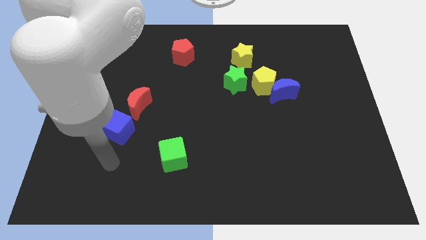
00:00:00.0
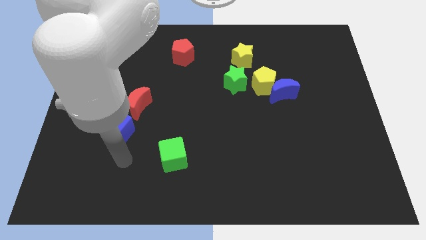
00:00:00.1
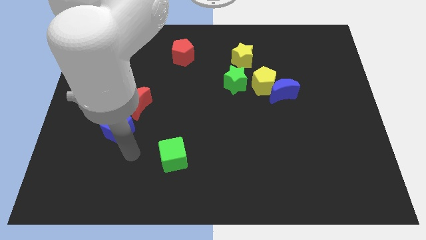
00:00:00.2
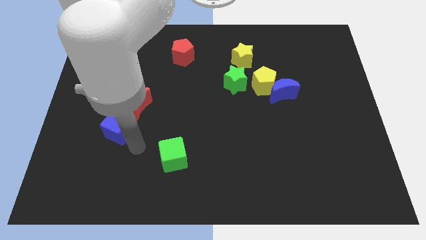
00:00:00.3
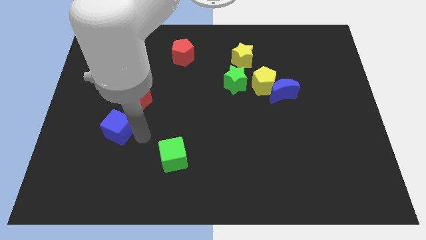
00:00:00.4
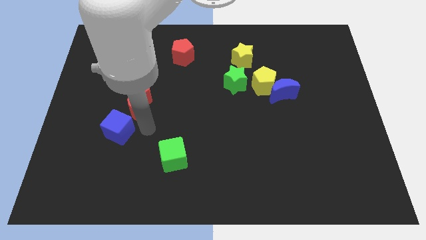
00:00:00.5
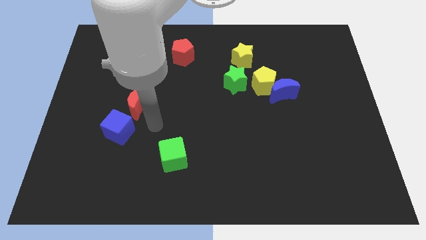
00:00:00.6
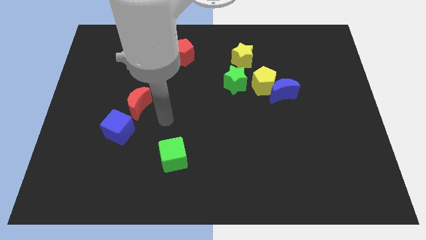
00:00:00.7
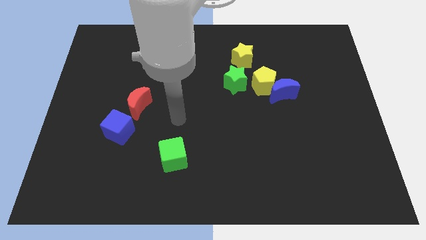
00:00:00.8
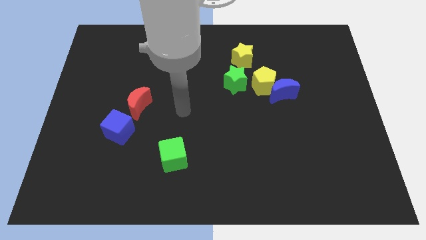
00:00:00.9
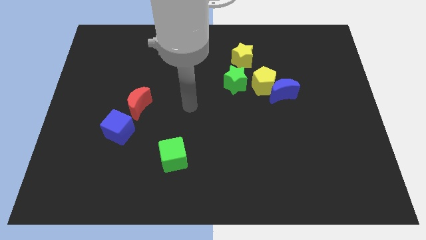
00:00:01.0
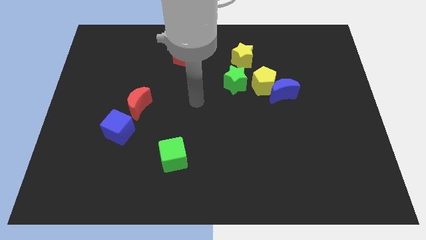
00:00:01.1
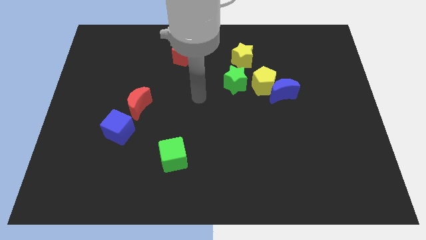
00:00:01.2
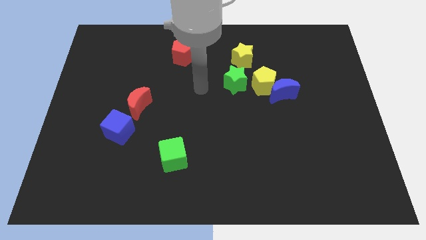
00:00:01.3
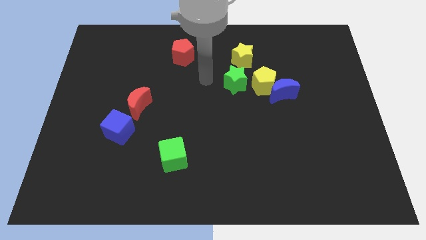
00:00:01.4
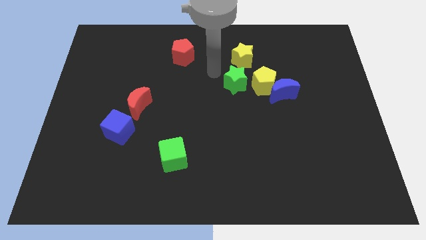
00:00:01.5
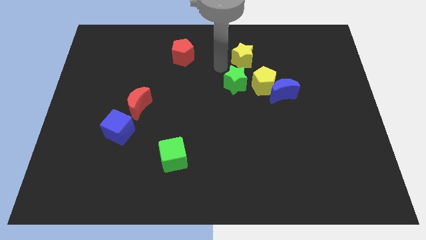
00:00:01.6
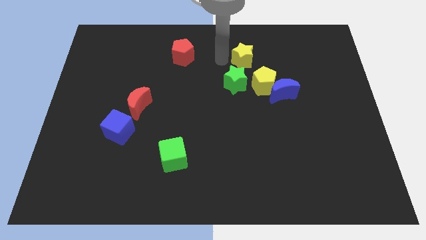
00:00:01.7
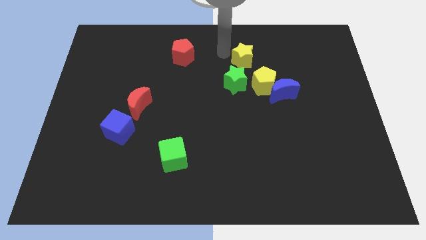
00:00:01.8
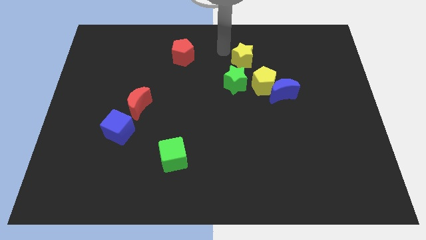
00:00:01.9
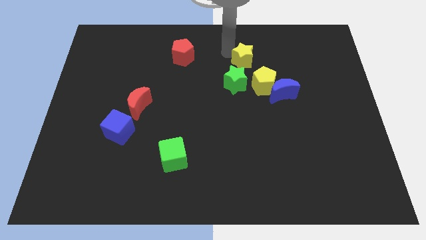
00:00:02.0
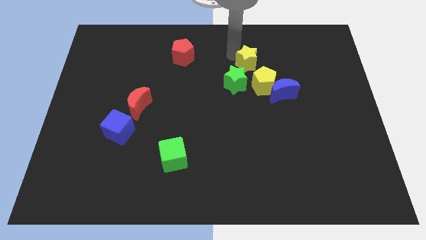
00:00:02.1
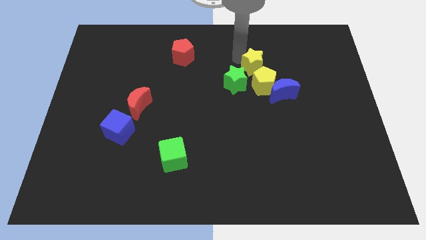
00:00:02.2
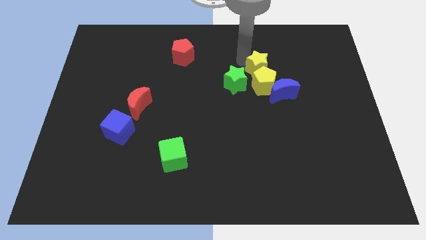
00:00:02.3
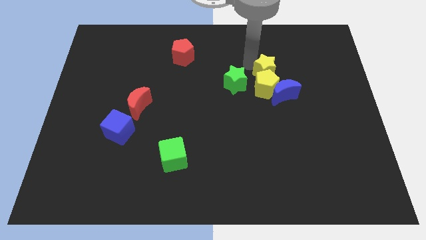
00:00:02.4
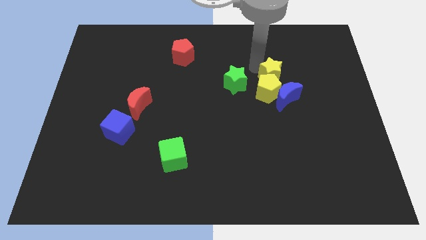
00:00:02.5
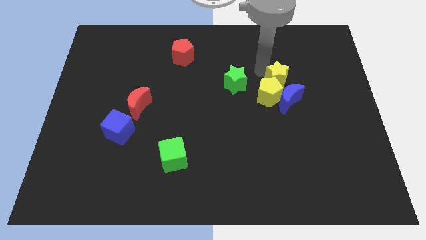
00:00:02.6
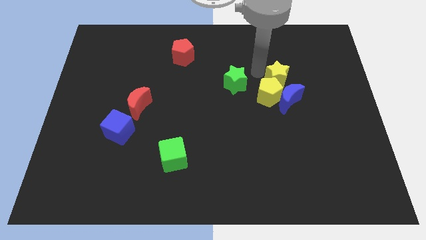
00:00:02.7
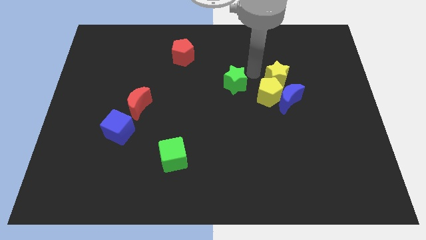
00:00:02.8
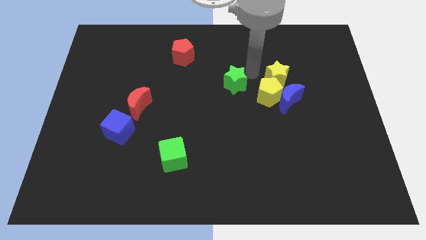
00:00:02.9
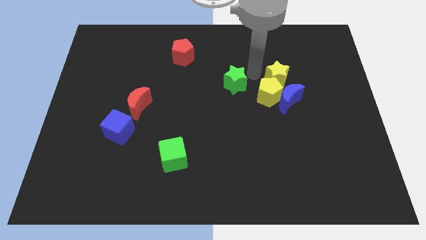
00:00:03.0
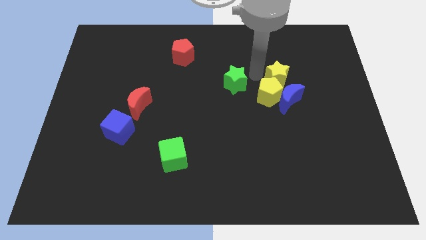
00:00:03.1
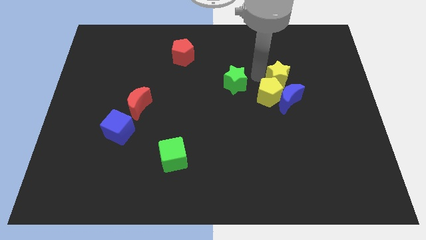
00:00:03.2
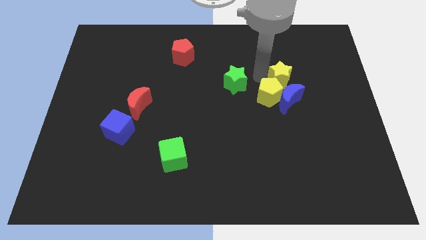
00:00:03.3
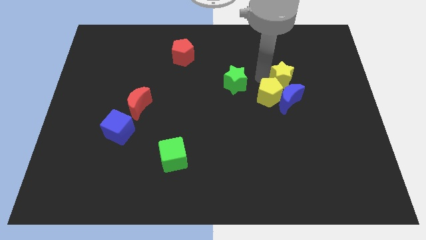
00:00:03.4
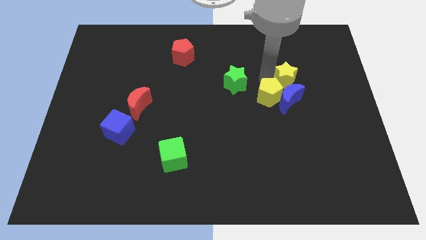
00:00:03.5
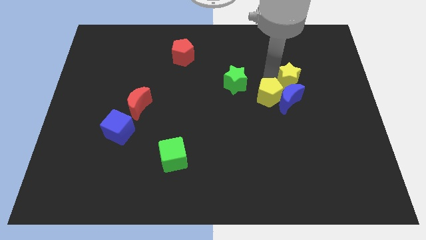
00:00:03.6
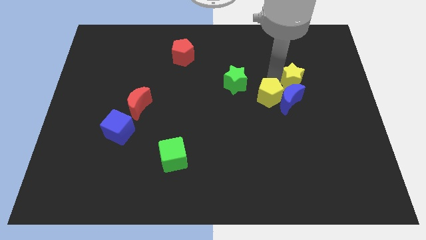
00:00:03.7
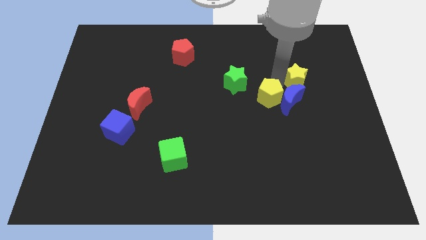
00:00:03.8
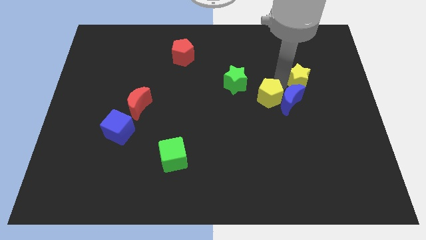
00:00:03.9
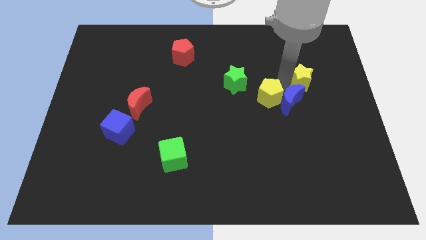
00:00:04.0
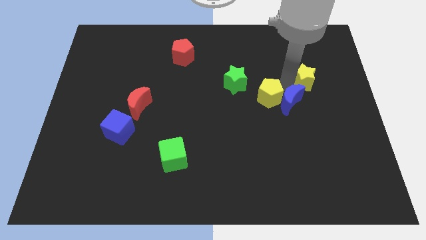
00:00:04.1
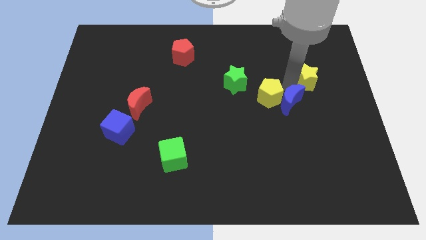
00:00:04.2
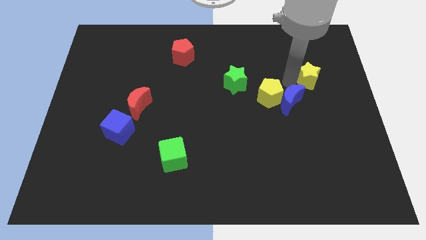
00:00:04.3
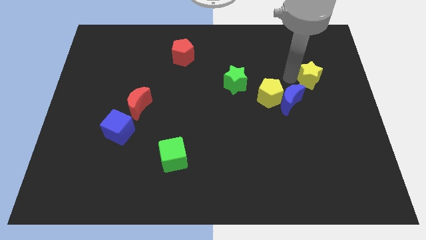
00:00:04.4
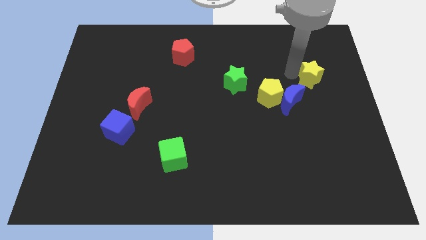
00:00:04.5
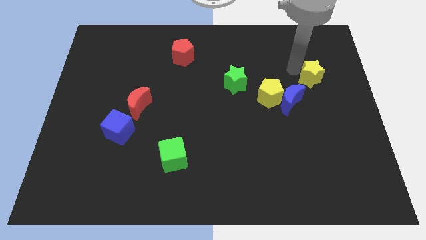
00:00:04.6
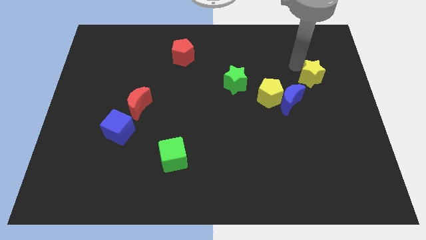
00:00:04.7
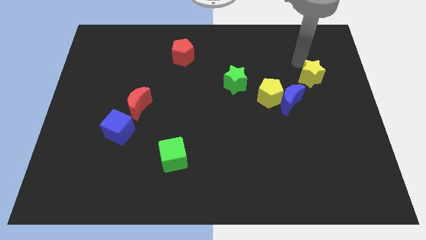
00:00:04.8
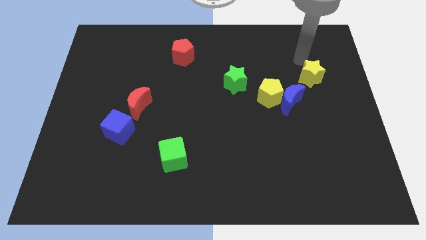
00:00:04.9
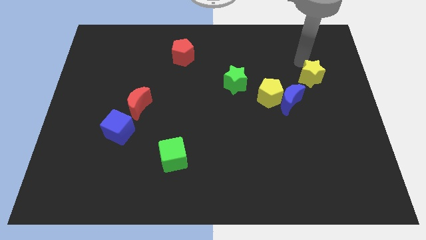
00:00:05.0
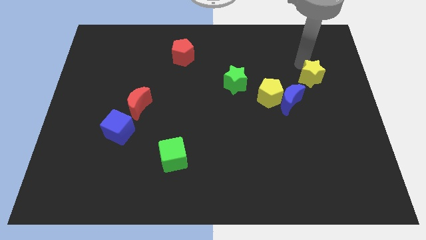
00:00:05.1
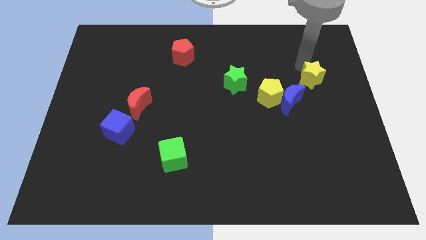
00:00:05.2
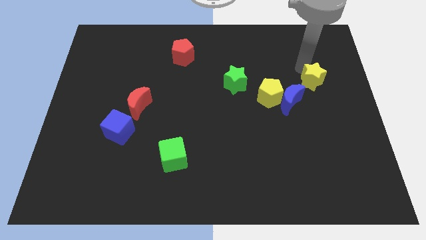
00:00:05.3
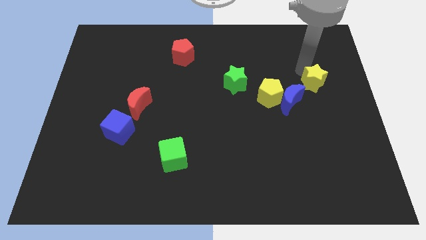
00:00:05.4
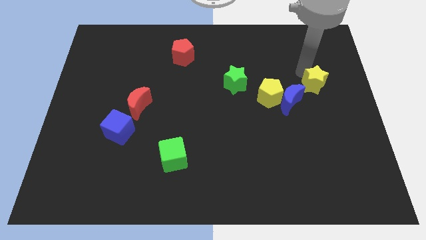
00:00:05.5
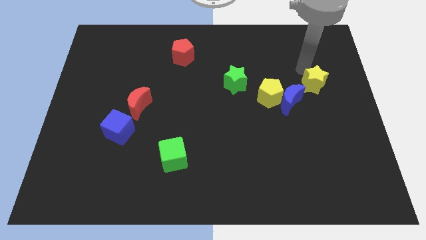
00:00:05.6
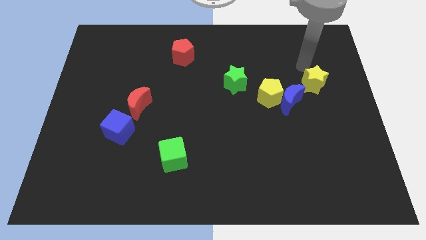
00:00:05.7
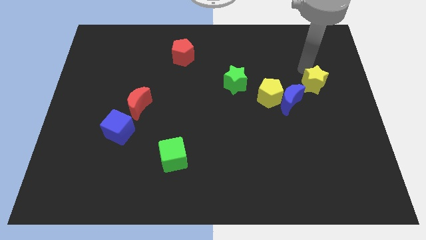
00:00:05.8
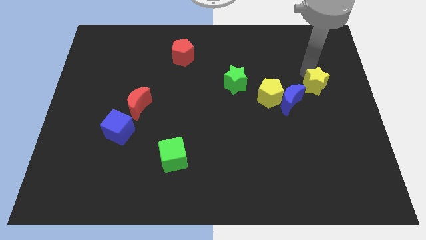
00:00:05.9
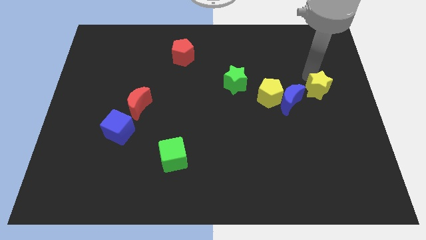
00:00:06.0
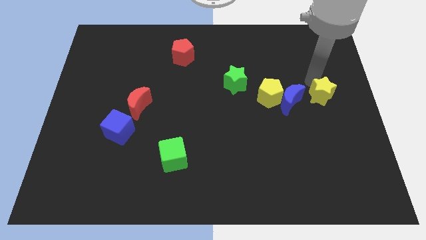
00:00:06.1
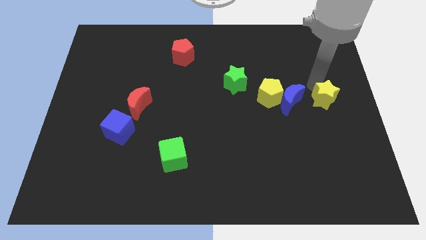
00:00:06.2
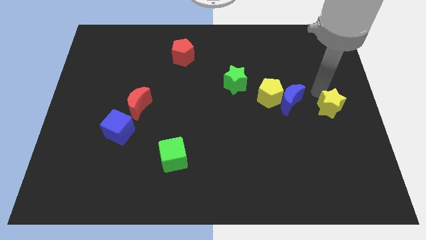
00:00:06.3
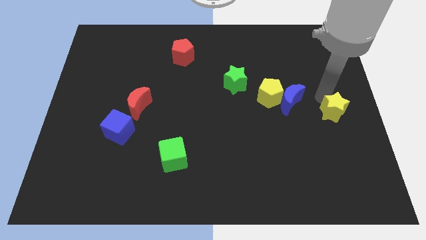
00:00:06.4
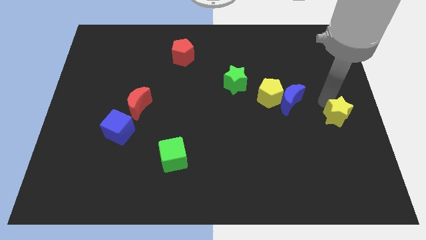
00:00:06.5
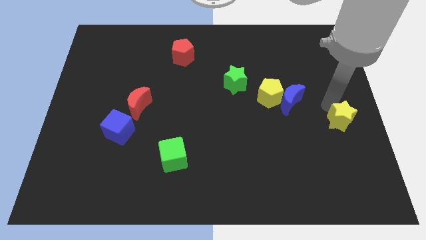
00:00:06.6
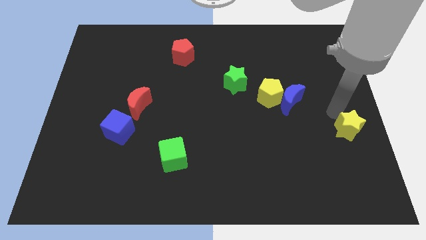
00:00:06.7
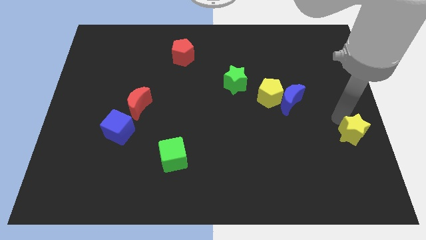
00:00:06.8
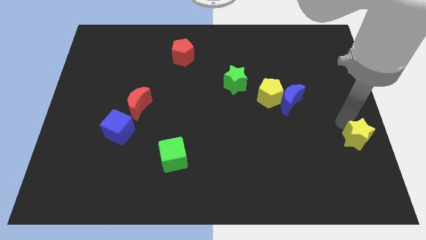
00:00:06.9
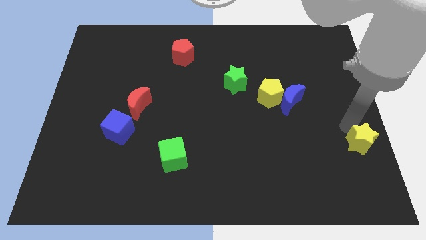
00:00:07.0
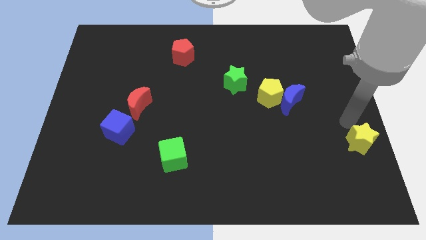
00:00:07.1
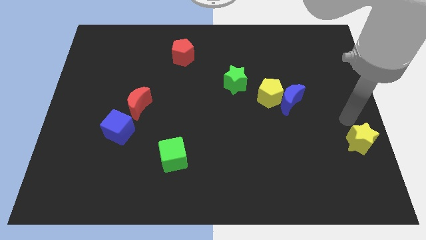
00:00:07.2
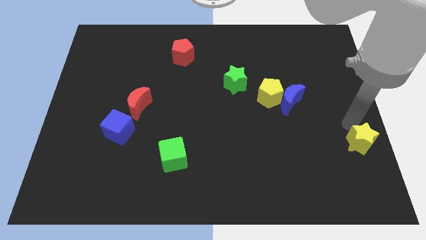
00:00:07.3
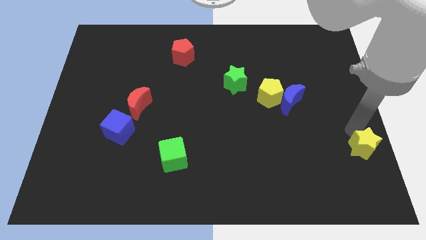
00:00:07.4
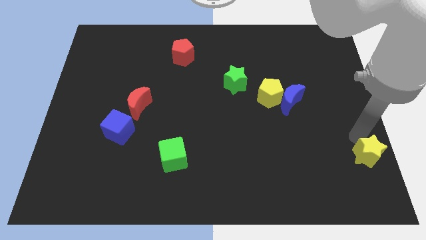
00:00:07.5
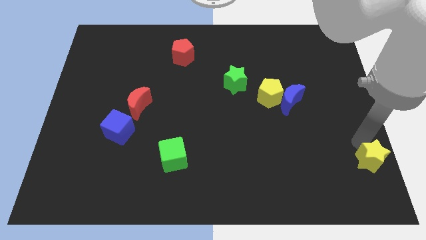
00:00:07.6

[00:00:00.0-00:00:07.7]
move the yellow star to the bottom right
